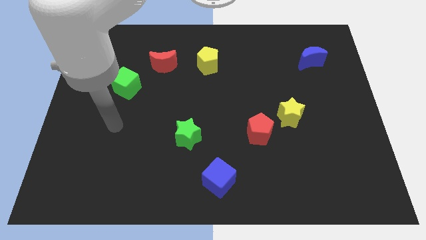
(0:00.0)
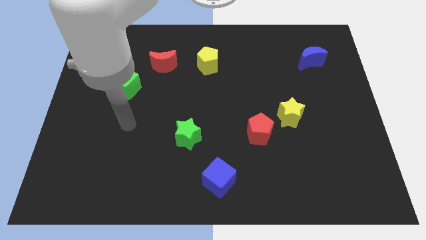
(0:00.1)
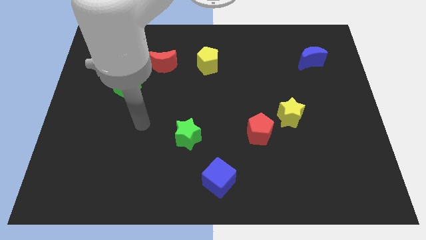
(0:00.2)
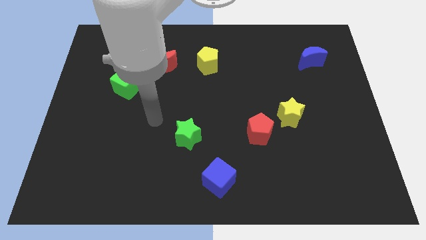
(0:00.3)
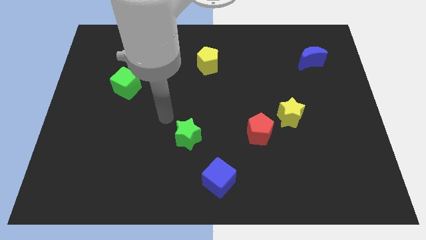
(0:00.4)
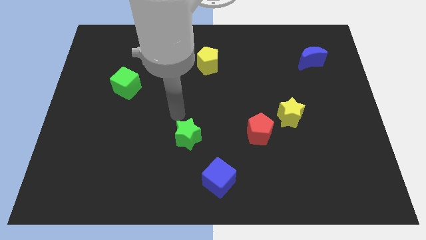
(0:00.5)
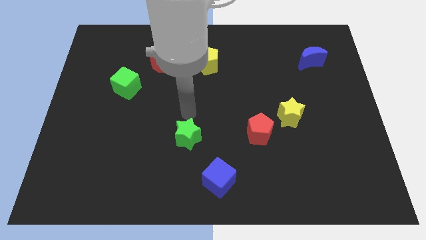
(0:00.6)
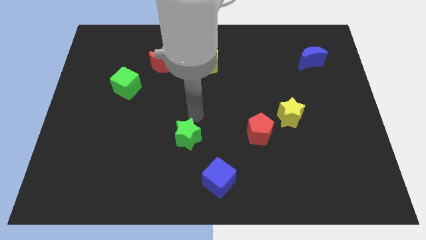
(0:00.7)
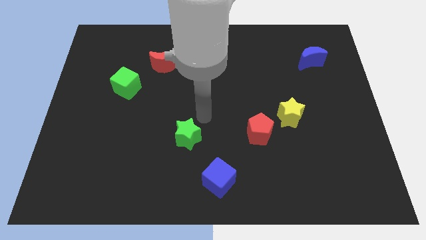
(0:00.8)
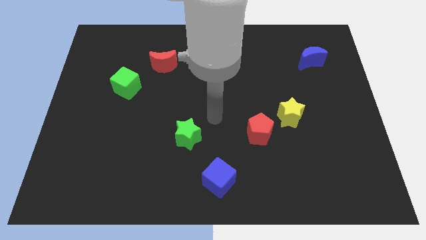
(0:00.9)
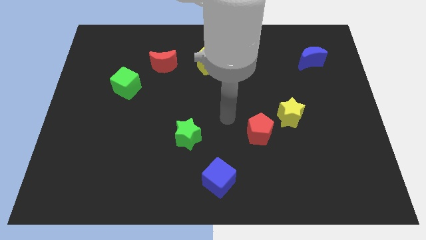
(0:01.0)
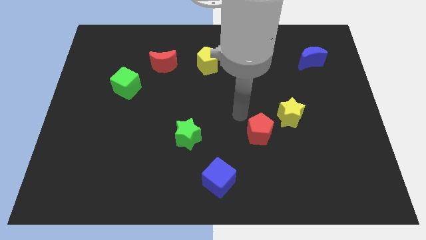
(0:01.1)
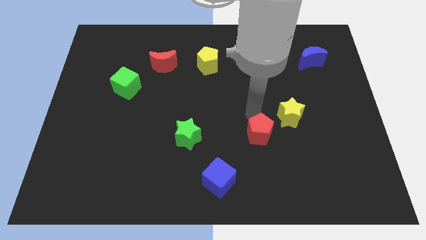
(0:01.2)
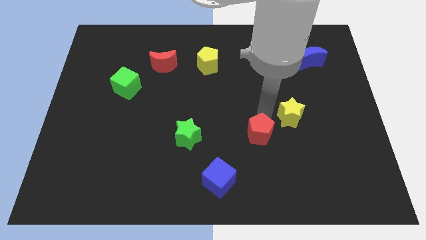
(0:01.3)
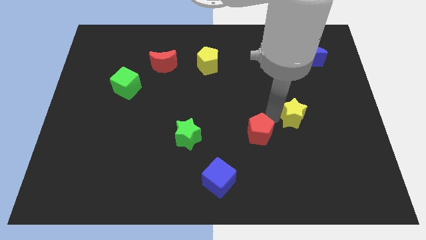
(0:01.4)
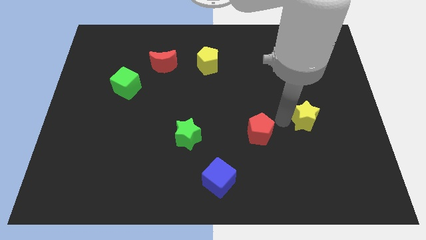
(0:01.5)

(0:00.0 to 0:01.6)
pull the red pentagon apart from the yellow star

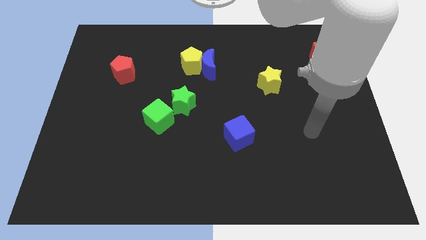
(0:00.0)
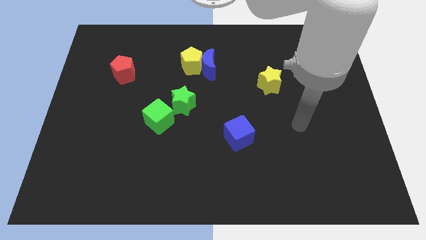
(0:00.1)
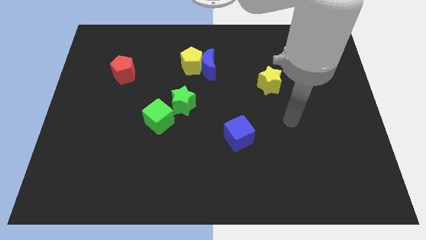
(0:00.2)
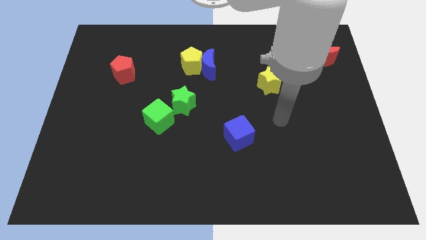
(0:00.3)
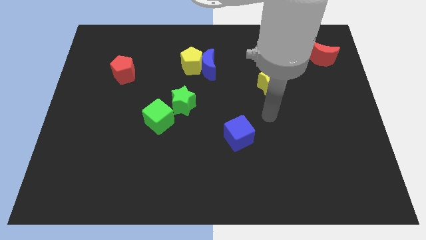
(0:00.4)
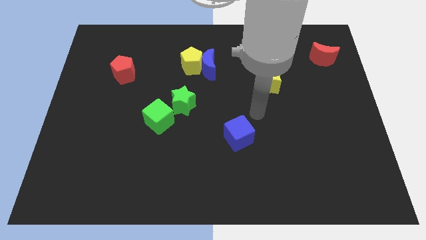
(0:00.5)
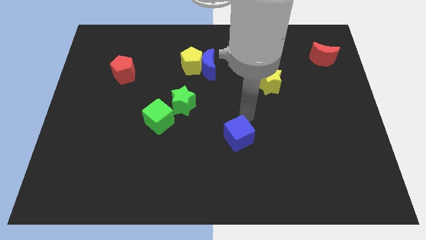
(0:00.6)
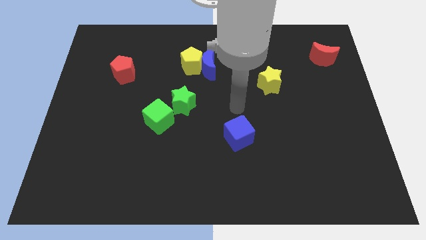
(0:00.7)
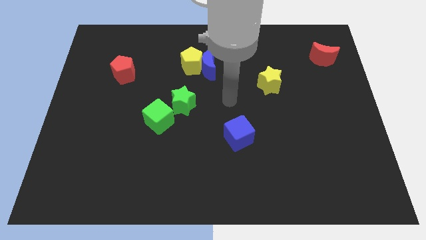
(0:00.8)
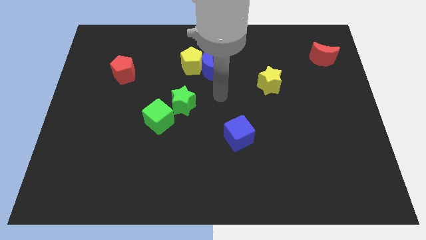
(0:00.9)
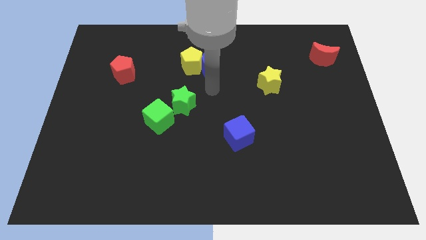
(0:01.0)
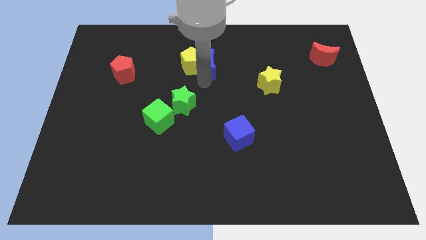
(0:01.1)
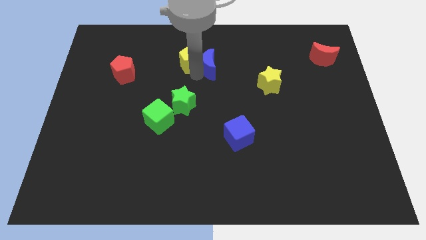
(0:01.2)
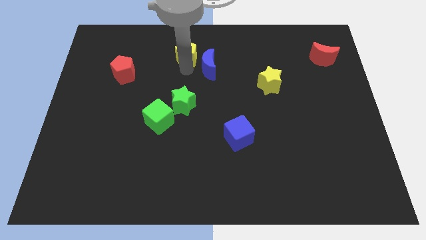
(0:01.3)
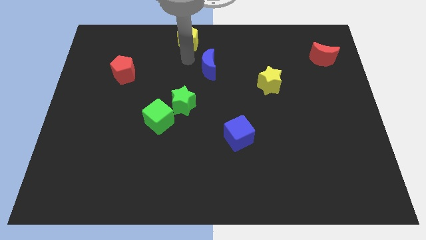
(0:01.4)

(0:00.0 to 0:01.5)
separate the blue moon from the yellow pentagon

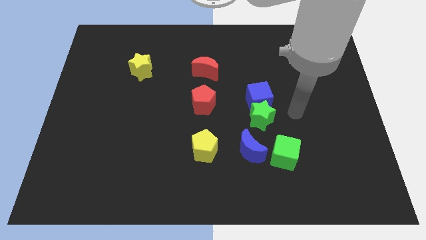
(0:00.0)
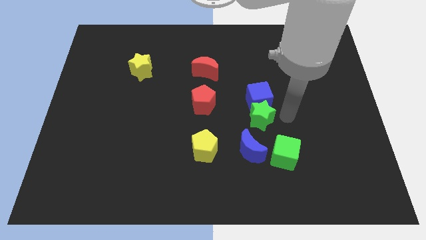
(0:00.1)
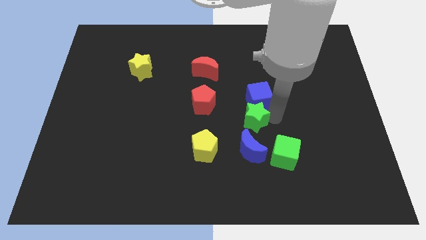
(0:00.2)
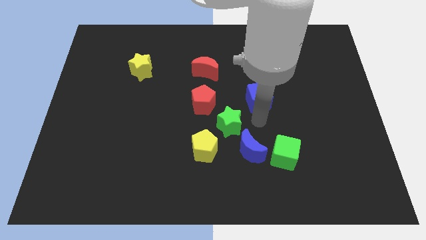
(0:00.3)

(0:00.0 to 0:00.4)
separate the blue cube from the green star

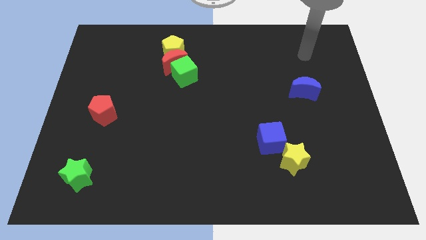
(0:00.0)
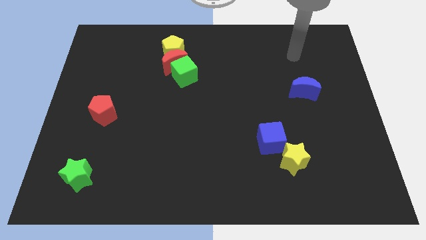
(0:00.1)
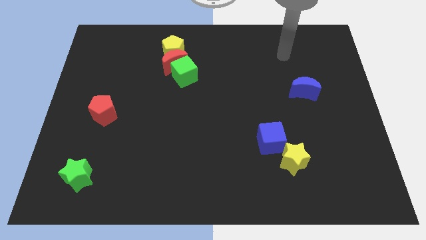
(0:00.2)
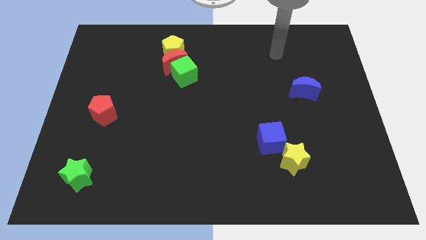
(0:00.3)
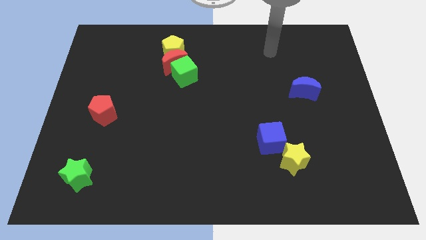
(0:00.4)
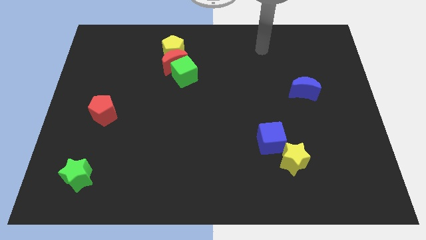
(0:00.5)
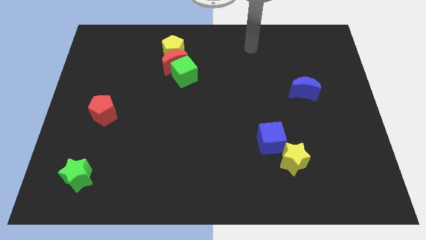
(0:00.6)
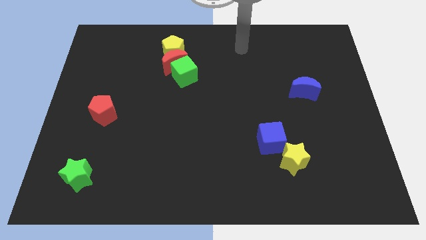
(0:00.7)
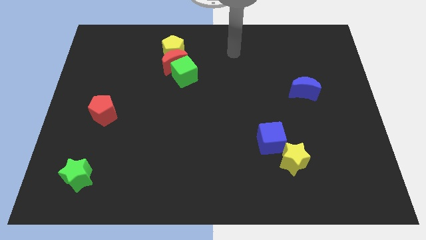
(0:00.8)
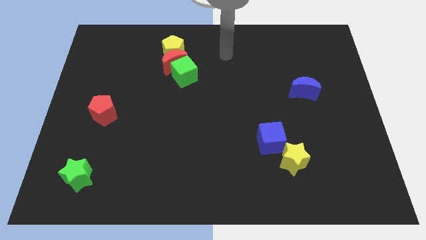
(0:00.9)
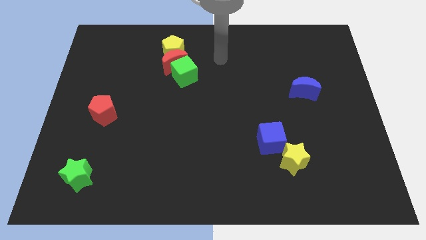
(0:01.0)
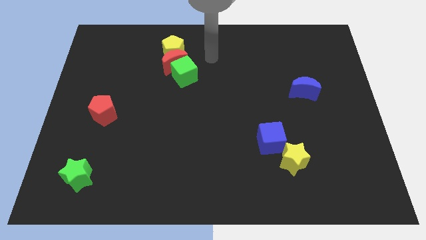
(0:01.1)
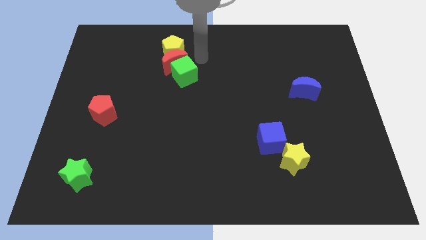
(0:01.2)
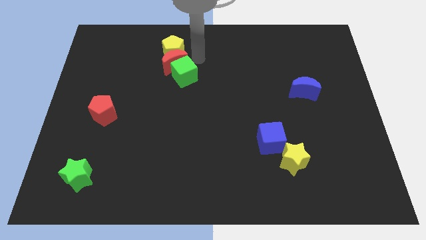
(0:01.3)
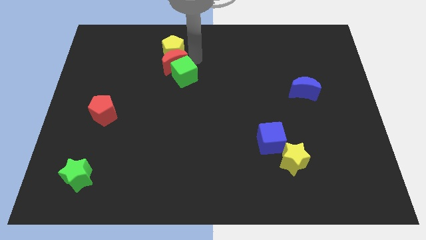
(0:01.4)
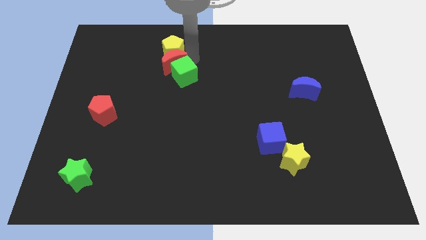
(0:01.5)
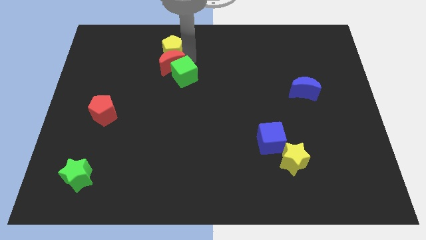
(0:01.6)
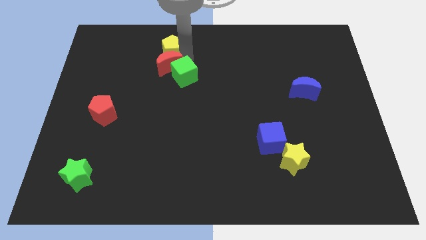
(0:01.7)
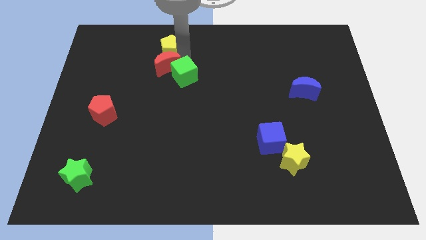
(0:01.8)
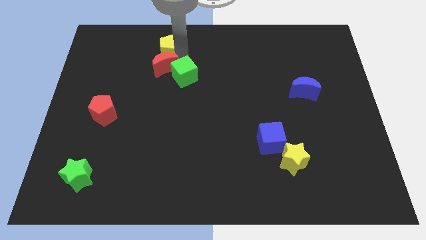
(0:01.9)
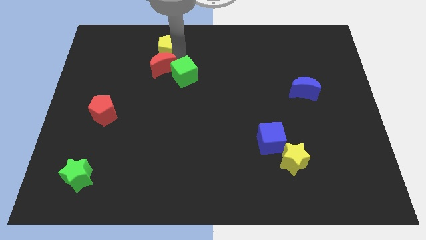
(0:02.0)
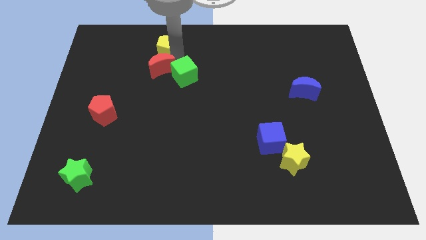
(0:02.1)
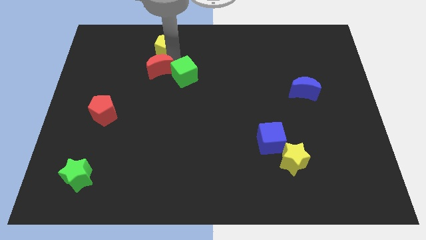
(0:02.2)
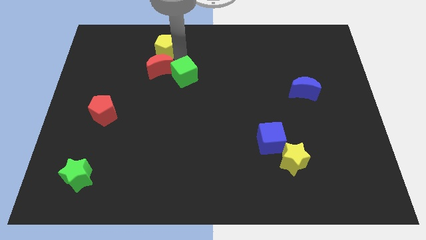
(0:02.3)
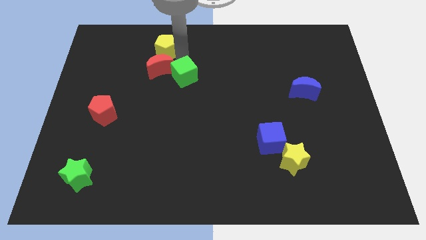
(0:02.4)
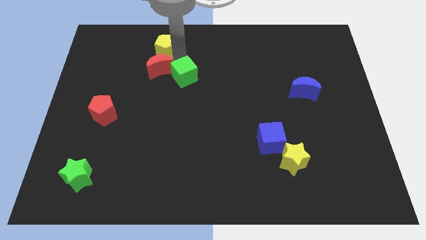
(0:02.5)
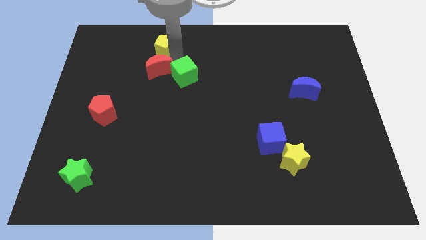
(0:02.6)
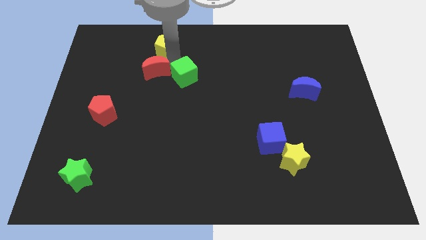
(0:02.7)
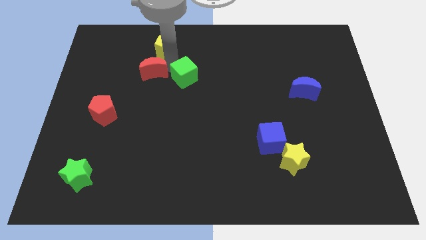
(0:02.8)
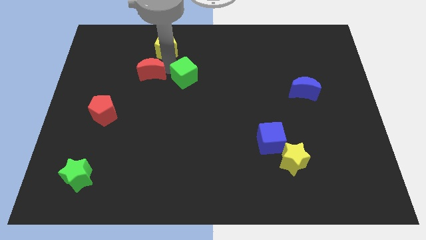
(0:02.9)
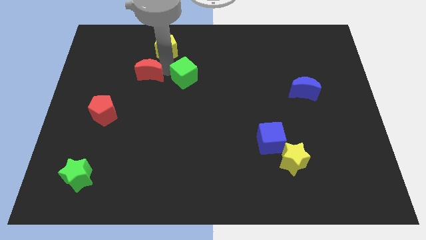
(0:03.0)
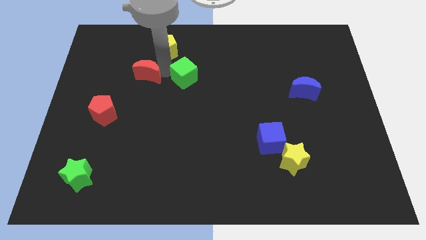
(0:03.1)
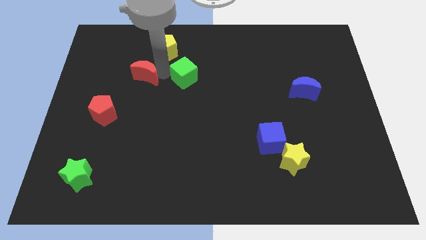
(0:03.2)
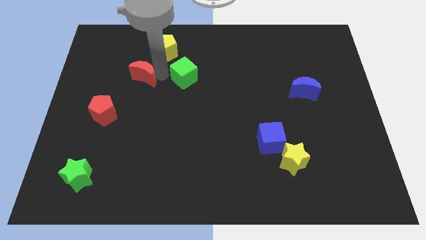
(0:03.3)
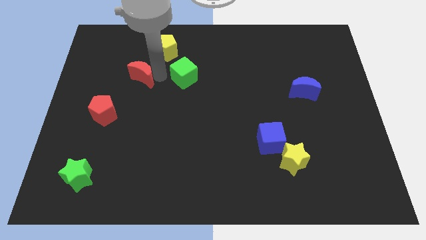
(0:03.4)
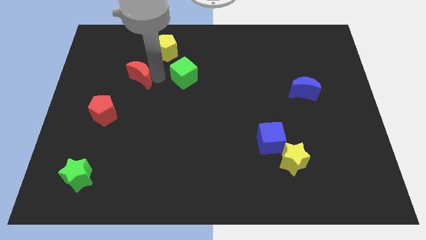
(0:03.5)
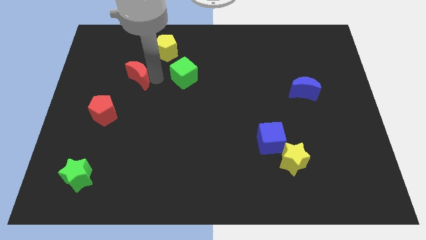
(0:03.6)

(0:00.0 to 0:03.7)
pull the red moon apart from the yellow pentagon and green cube

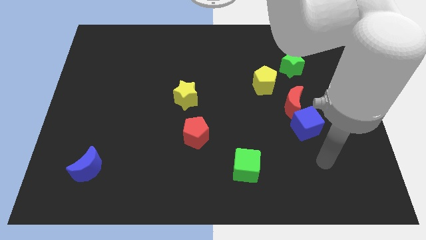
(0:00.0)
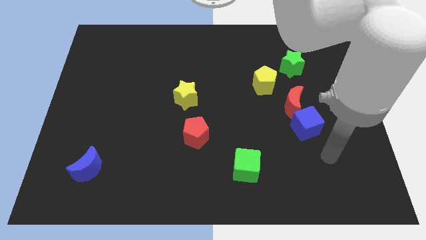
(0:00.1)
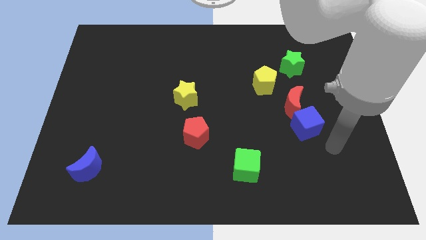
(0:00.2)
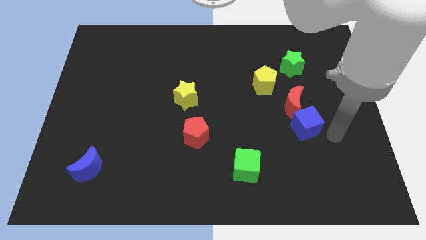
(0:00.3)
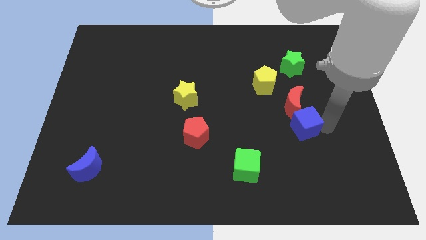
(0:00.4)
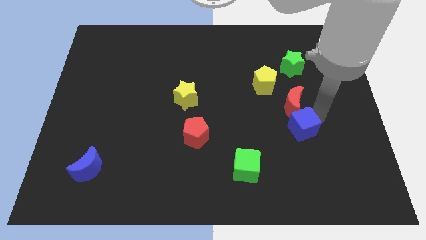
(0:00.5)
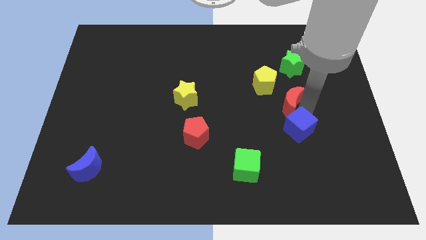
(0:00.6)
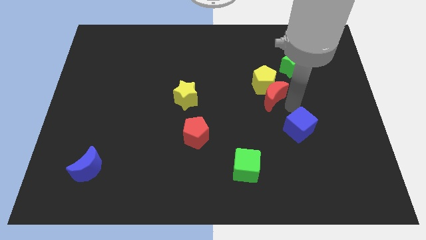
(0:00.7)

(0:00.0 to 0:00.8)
pull the blue cube apart from the red moon

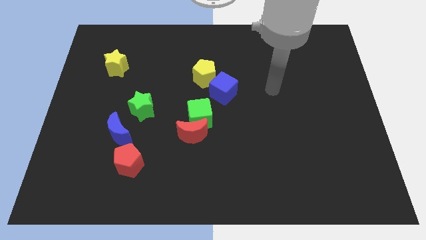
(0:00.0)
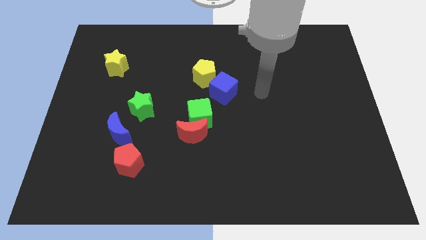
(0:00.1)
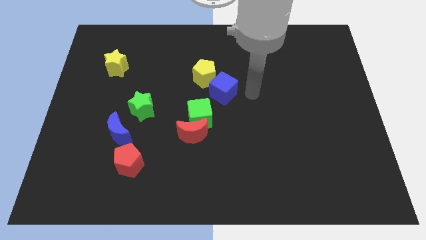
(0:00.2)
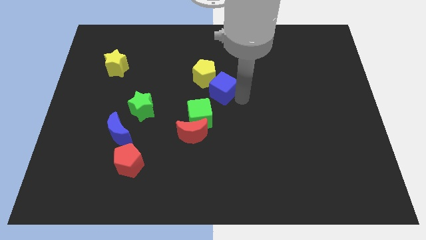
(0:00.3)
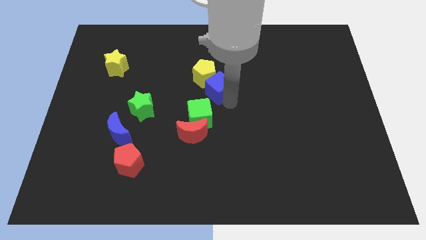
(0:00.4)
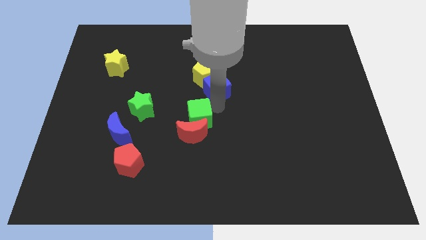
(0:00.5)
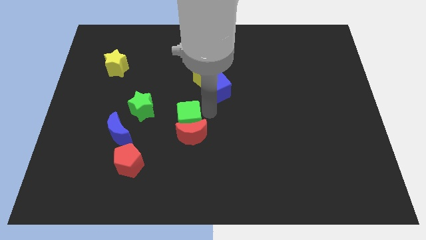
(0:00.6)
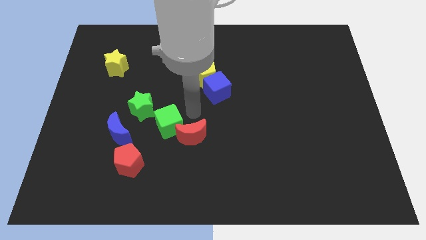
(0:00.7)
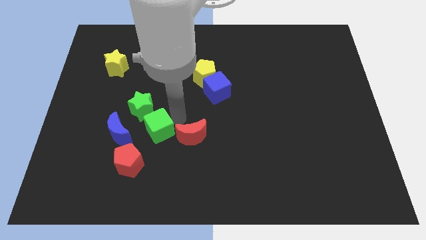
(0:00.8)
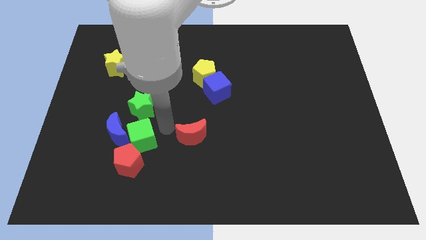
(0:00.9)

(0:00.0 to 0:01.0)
pull the red moon apart from the green cube

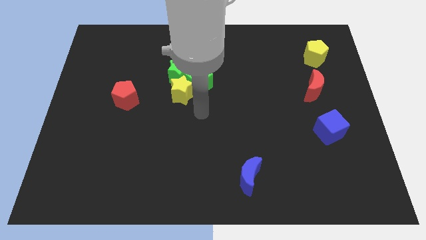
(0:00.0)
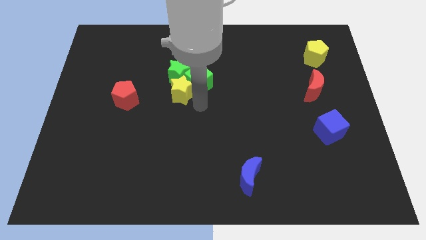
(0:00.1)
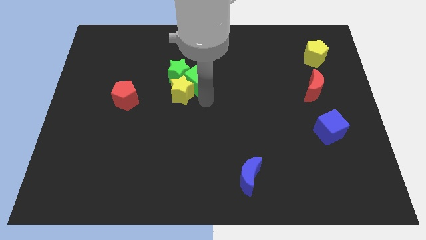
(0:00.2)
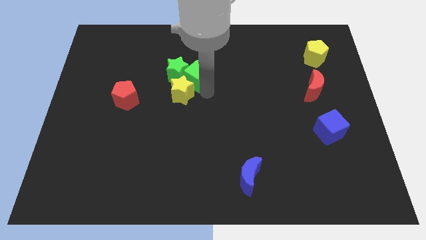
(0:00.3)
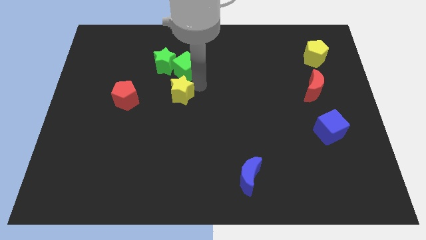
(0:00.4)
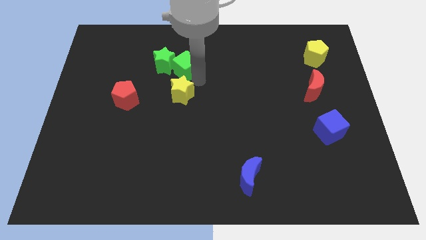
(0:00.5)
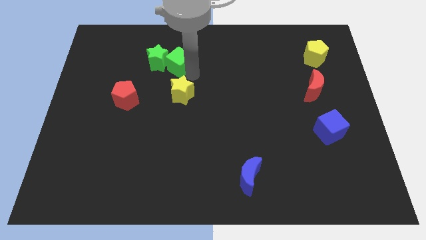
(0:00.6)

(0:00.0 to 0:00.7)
separate the yellow star from the green cube and green star
